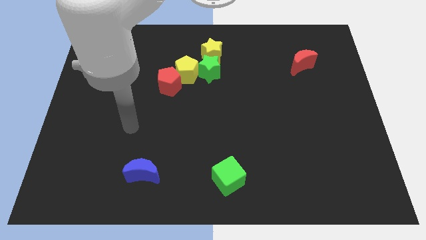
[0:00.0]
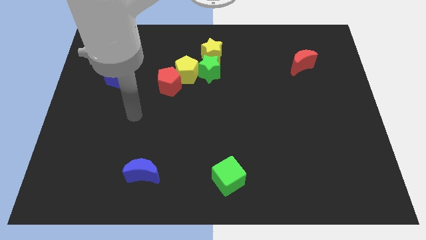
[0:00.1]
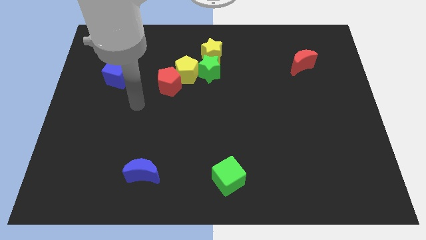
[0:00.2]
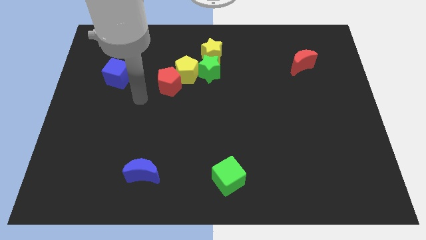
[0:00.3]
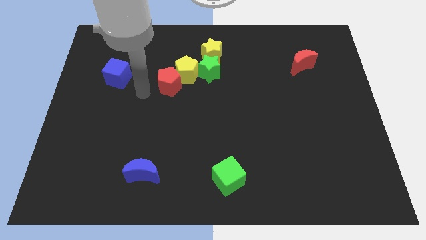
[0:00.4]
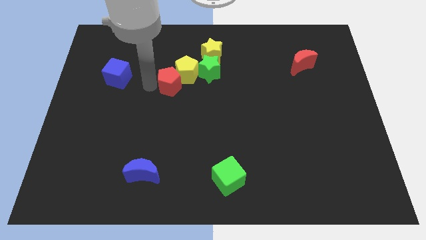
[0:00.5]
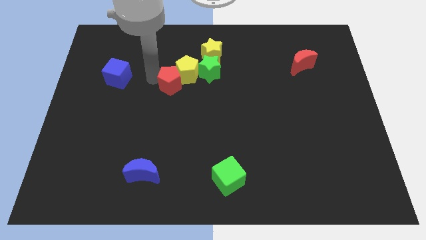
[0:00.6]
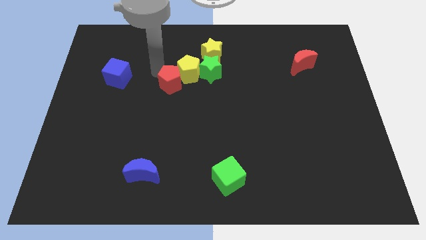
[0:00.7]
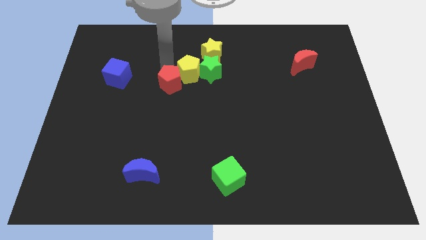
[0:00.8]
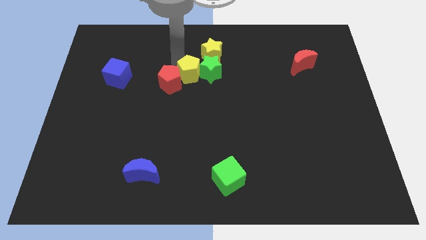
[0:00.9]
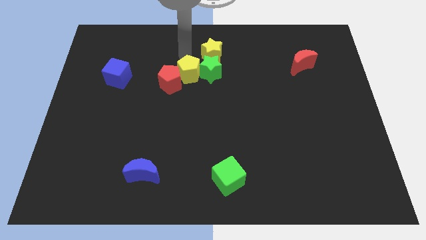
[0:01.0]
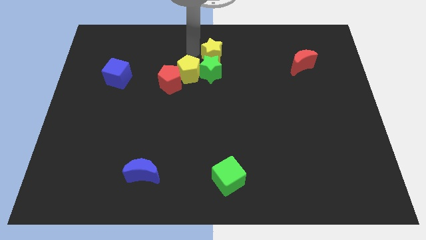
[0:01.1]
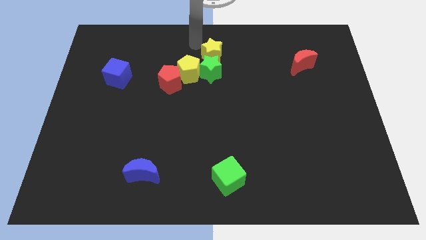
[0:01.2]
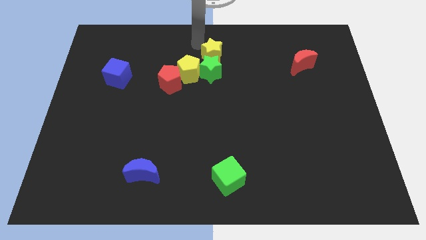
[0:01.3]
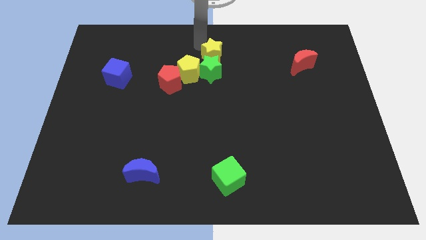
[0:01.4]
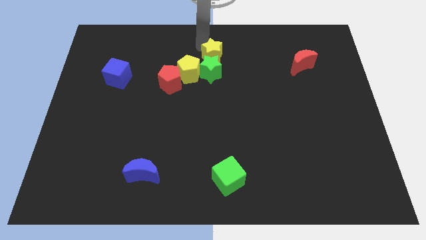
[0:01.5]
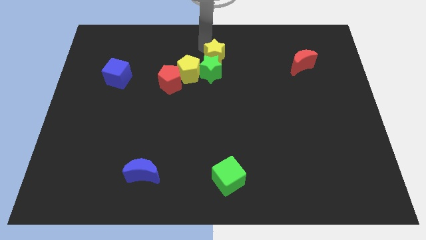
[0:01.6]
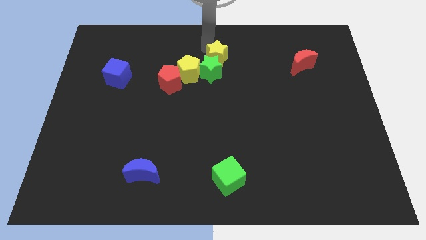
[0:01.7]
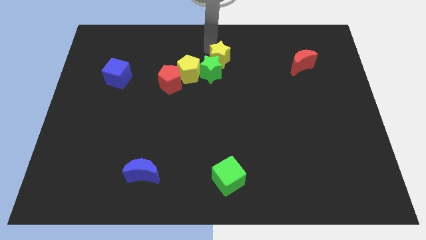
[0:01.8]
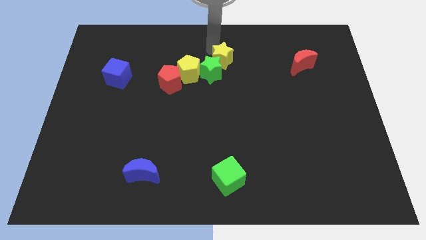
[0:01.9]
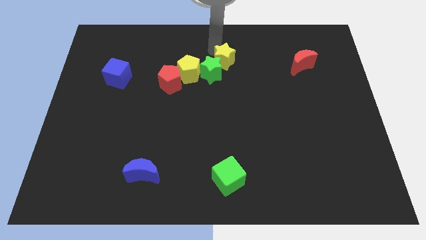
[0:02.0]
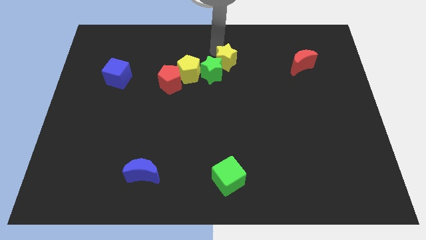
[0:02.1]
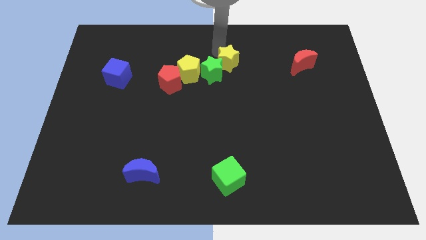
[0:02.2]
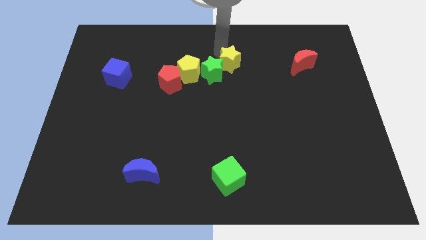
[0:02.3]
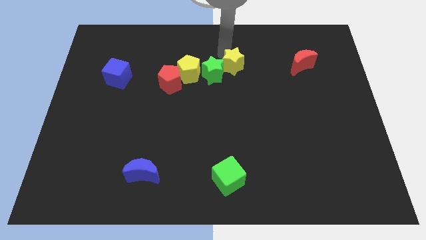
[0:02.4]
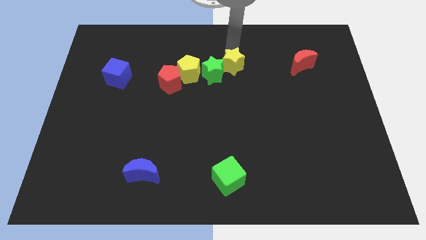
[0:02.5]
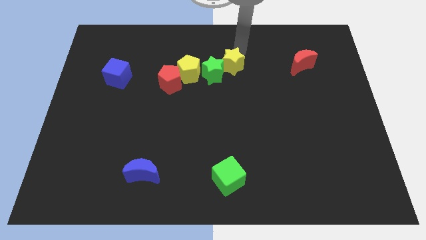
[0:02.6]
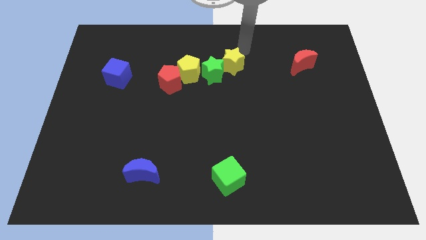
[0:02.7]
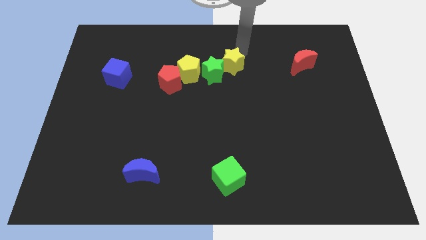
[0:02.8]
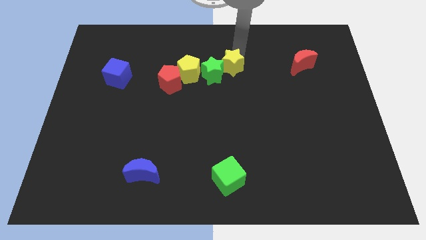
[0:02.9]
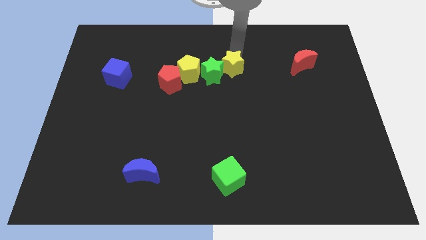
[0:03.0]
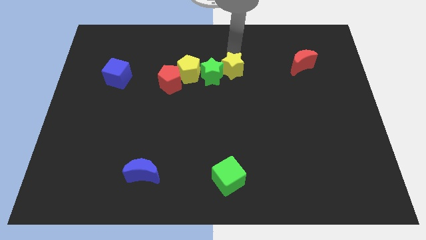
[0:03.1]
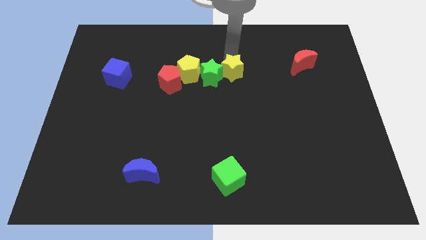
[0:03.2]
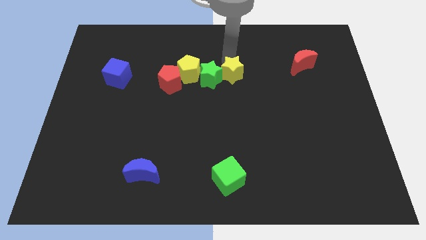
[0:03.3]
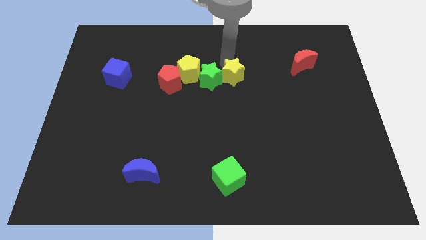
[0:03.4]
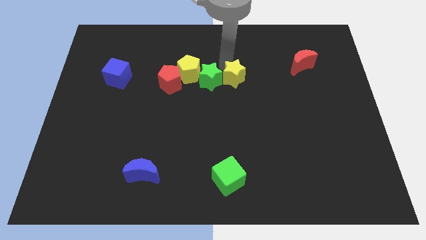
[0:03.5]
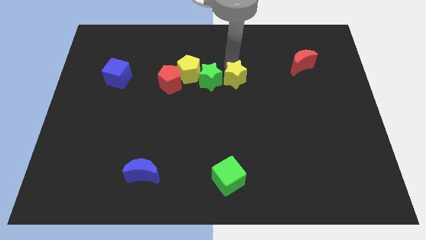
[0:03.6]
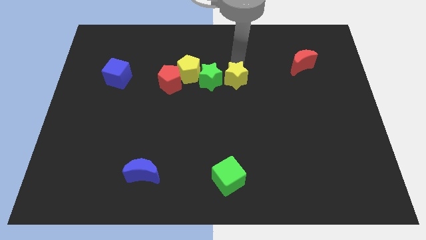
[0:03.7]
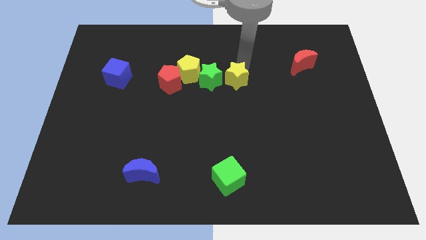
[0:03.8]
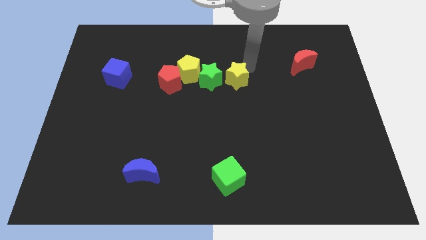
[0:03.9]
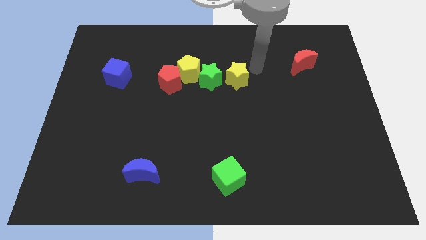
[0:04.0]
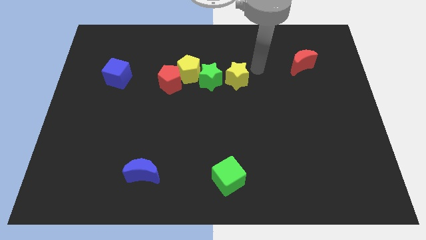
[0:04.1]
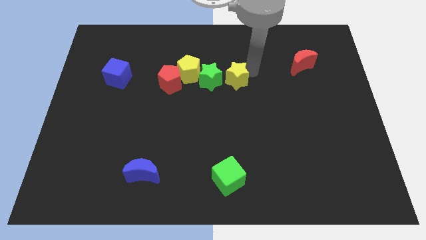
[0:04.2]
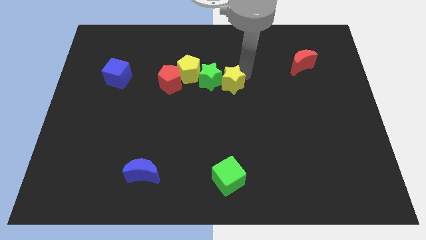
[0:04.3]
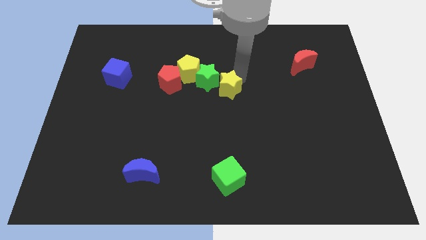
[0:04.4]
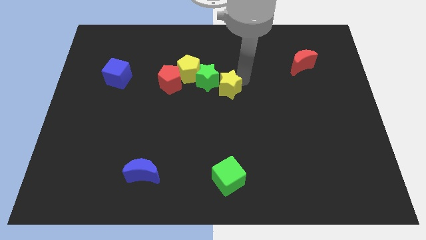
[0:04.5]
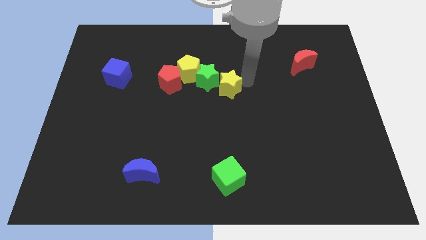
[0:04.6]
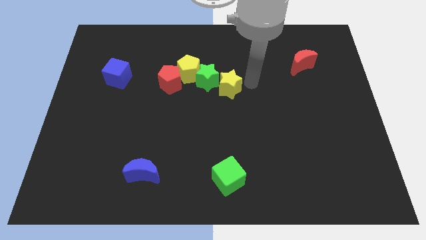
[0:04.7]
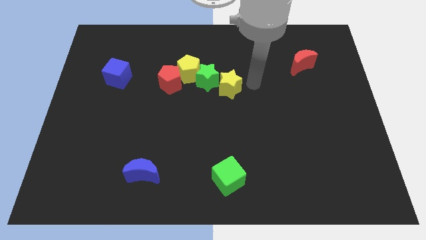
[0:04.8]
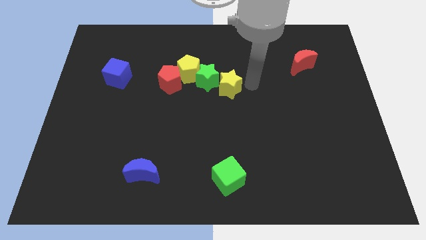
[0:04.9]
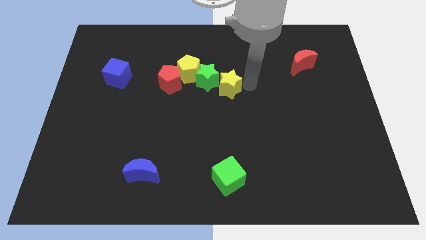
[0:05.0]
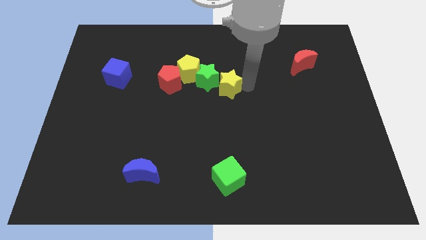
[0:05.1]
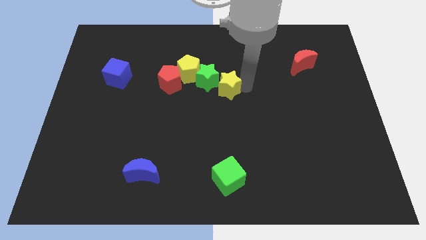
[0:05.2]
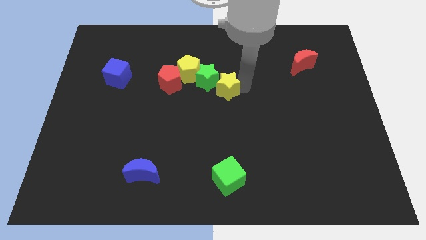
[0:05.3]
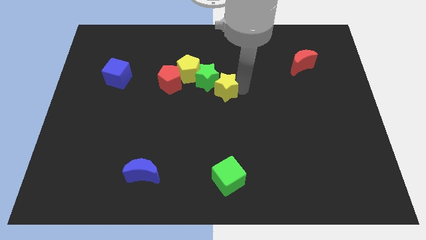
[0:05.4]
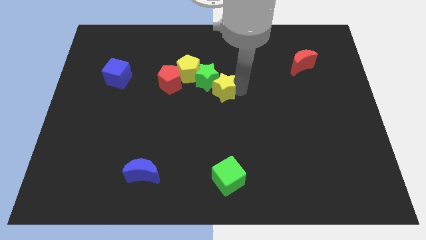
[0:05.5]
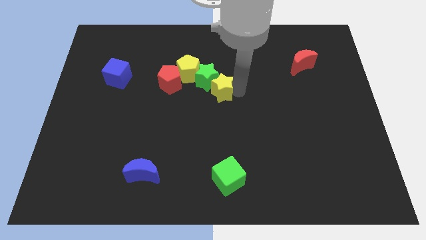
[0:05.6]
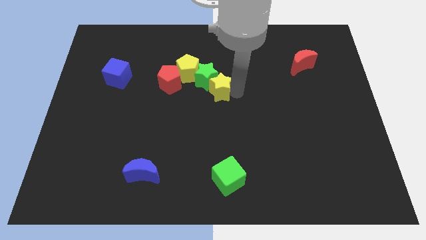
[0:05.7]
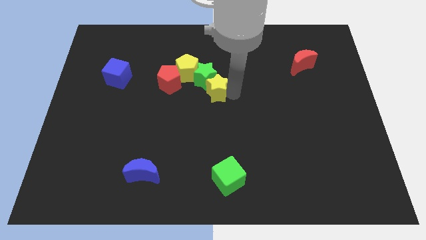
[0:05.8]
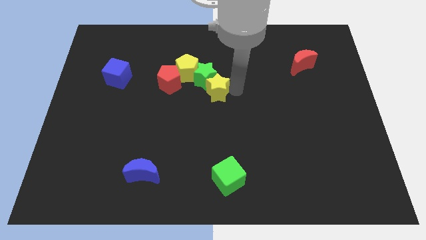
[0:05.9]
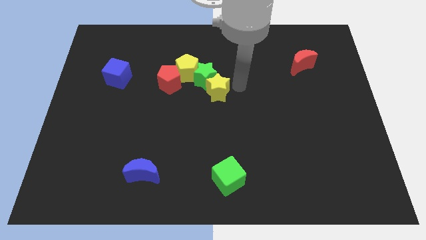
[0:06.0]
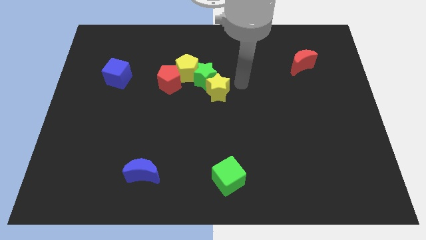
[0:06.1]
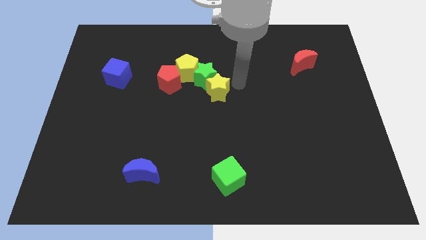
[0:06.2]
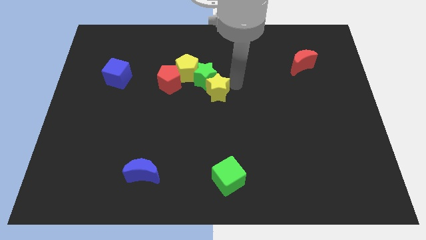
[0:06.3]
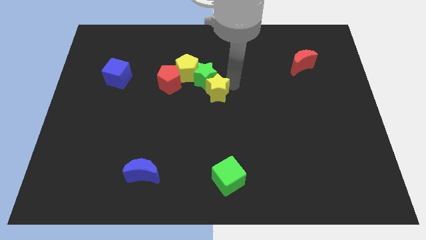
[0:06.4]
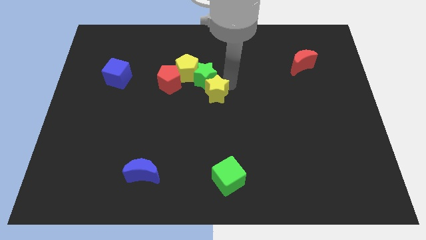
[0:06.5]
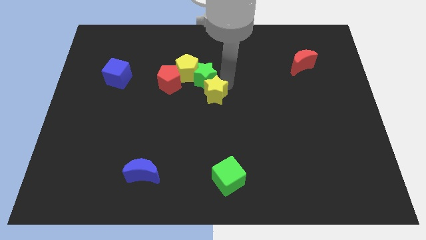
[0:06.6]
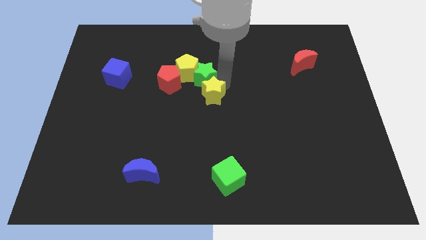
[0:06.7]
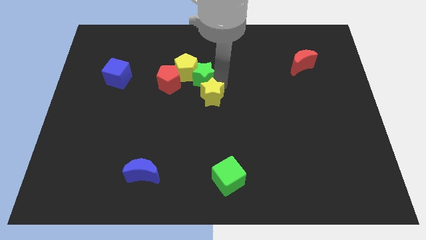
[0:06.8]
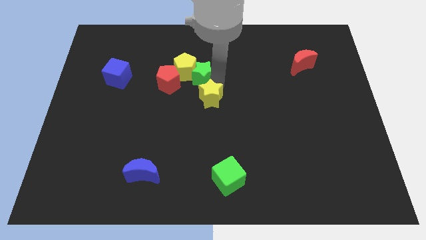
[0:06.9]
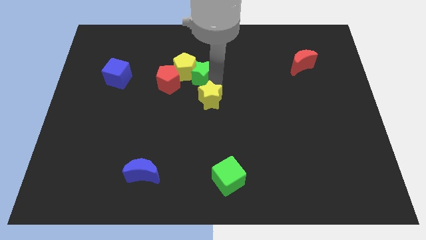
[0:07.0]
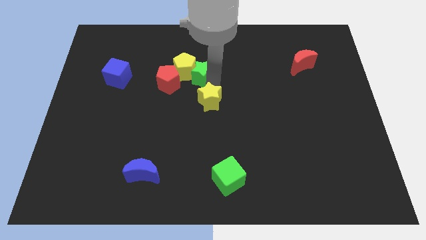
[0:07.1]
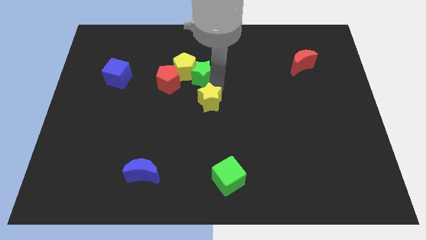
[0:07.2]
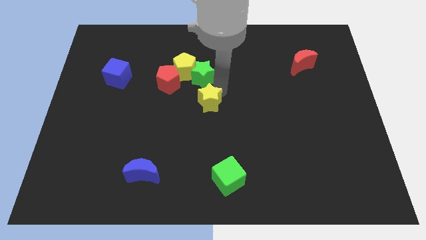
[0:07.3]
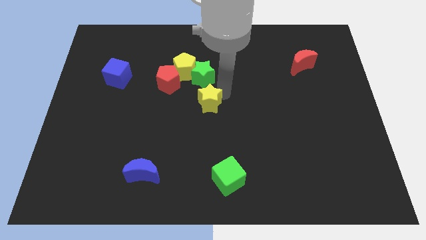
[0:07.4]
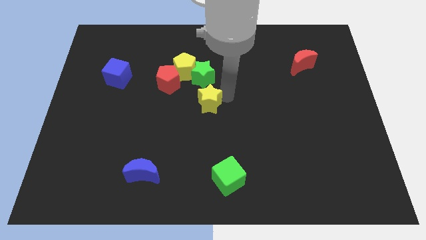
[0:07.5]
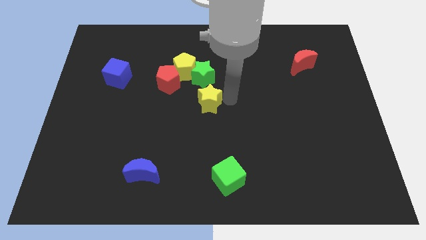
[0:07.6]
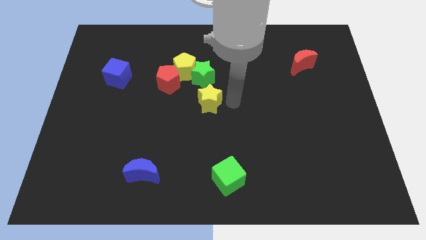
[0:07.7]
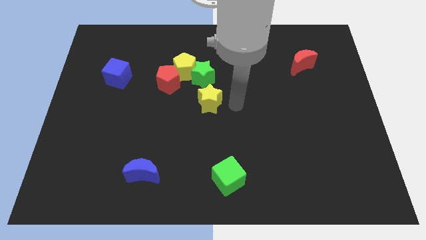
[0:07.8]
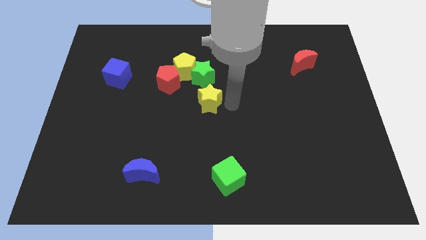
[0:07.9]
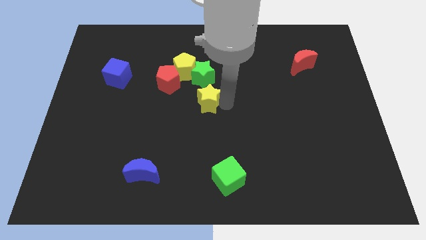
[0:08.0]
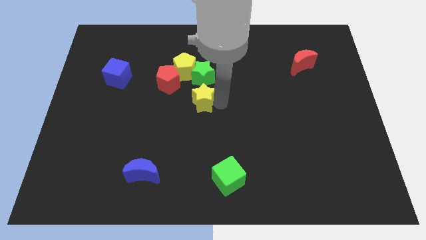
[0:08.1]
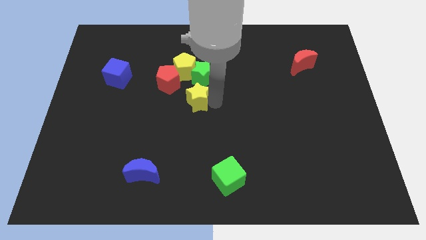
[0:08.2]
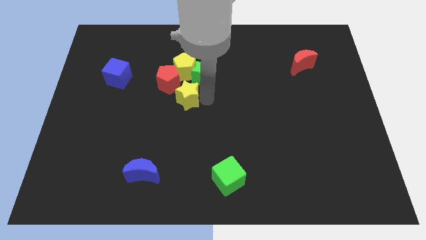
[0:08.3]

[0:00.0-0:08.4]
move the yellow star to the bottom of the red pentagon
